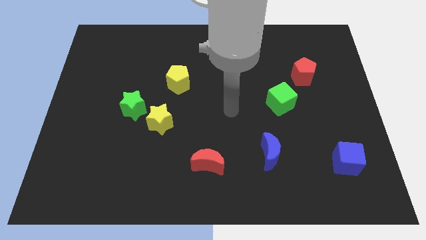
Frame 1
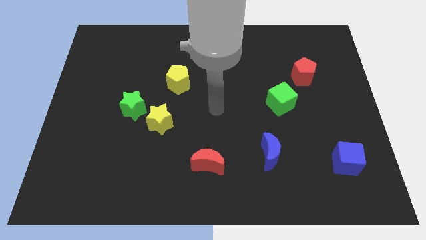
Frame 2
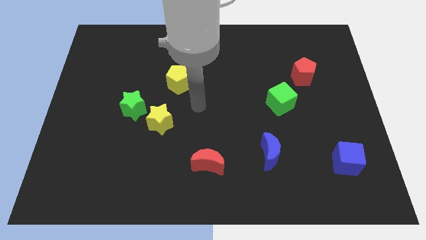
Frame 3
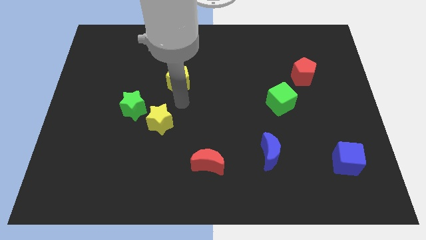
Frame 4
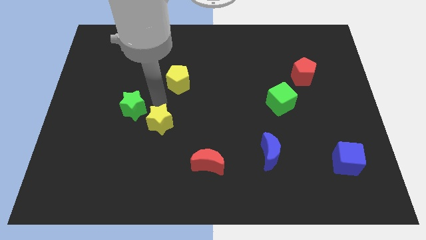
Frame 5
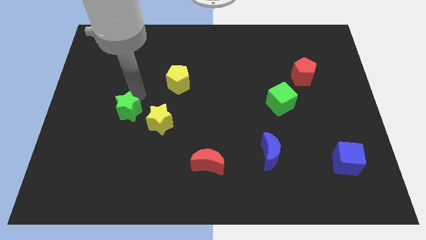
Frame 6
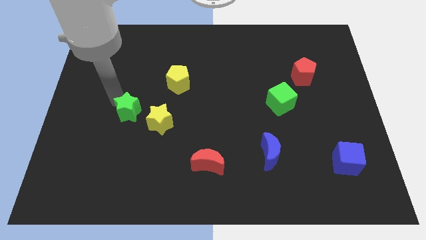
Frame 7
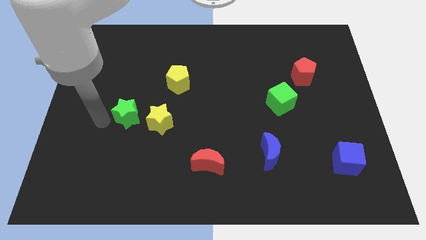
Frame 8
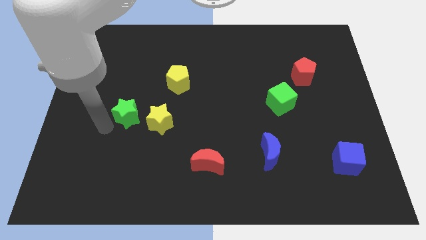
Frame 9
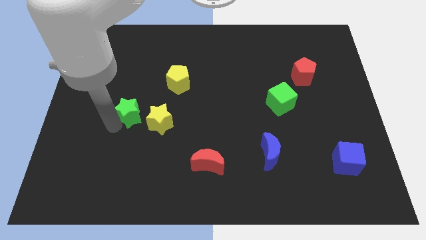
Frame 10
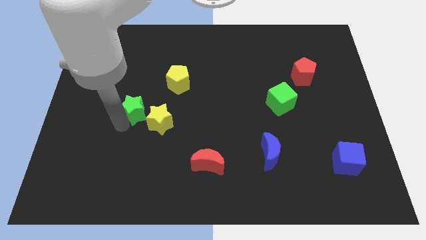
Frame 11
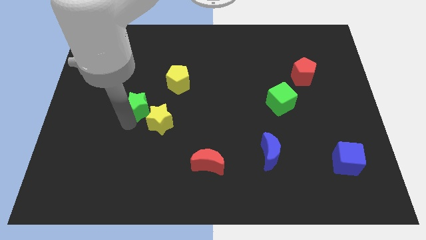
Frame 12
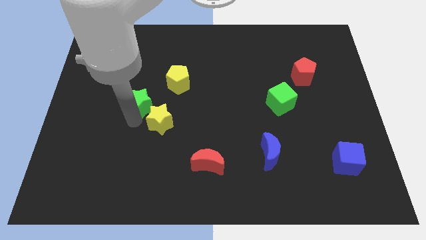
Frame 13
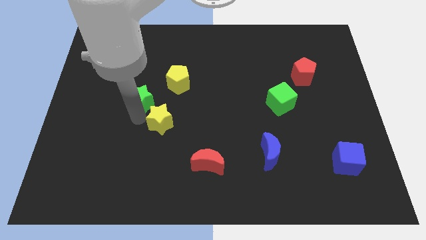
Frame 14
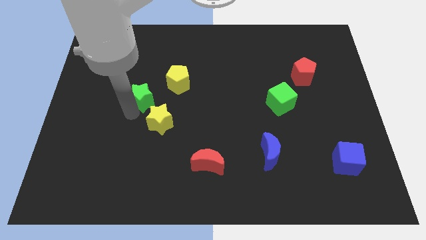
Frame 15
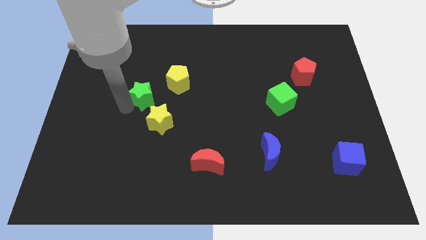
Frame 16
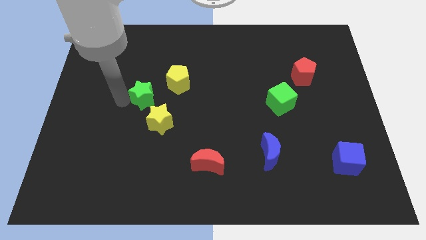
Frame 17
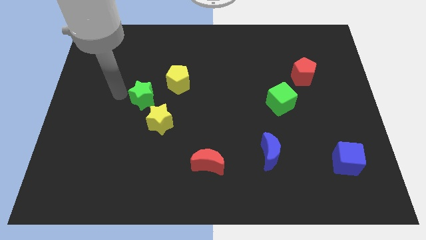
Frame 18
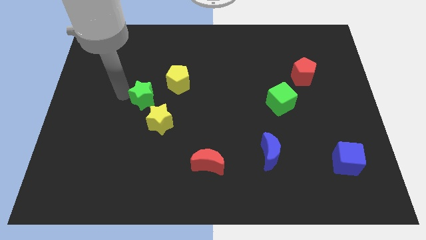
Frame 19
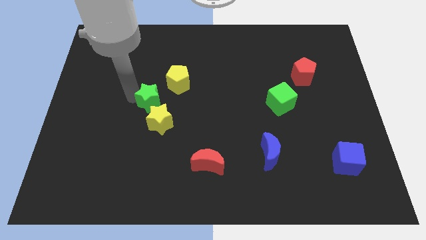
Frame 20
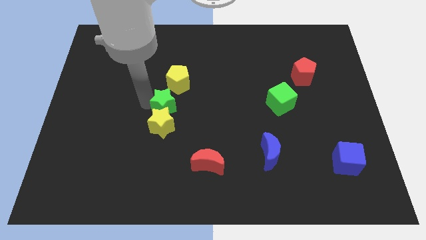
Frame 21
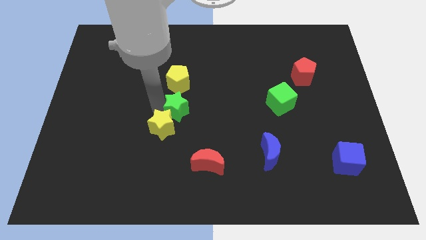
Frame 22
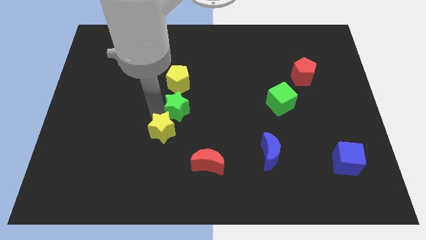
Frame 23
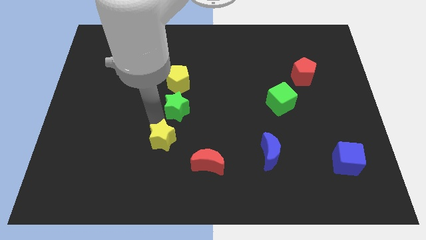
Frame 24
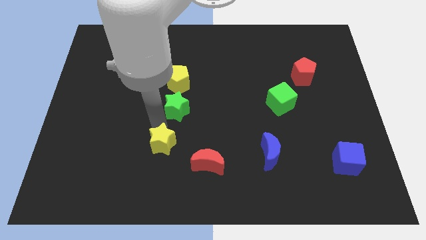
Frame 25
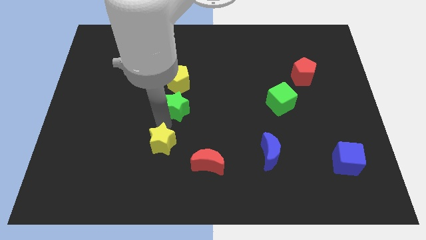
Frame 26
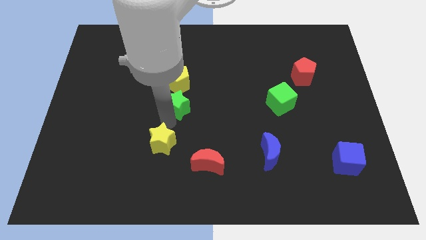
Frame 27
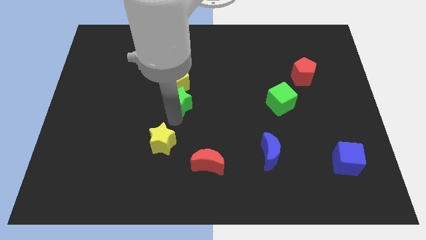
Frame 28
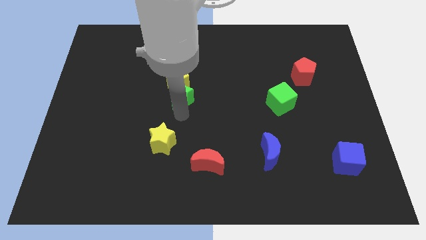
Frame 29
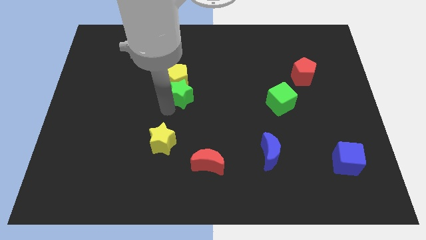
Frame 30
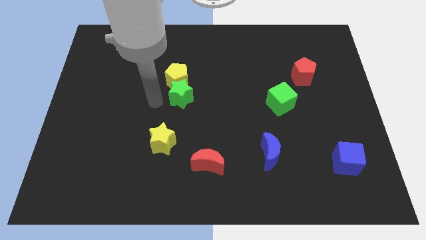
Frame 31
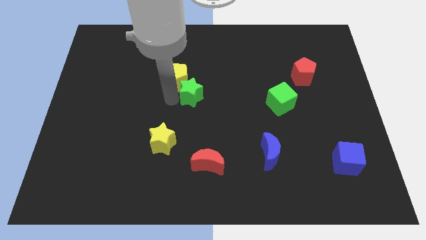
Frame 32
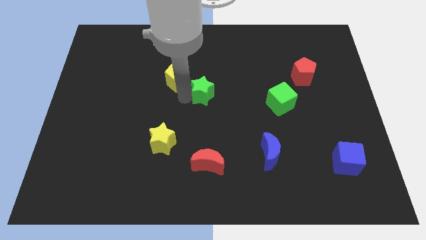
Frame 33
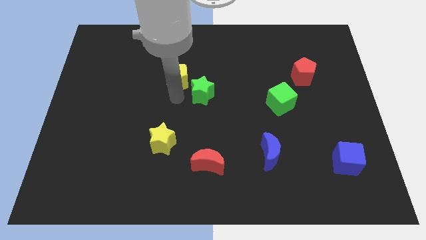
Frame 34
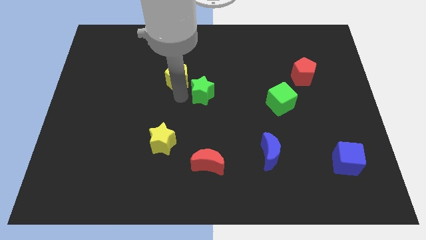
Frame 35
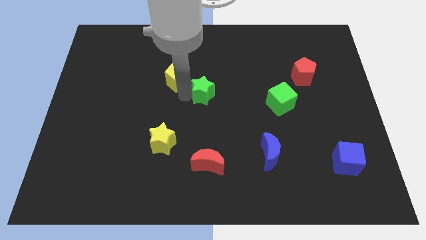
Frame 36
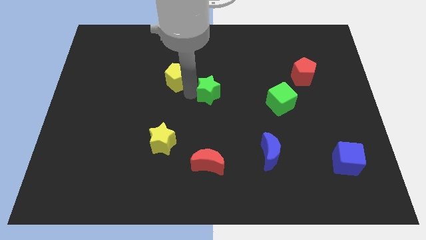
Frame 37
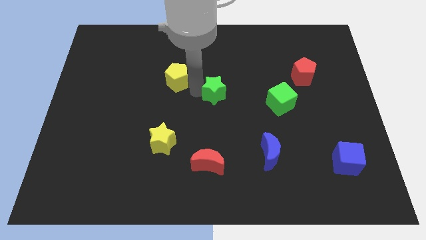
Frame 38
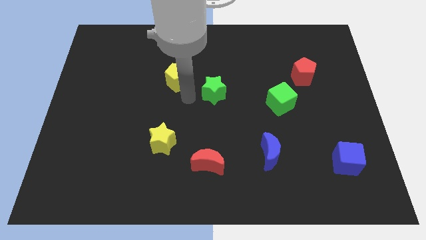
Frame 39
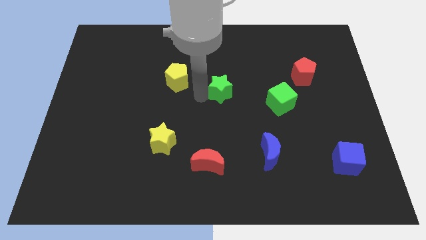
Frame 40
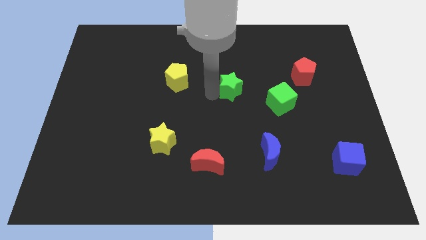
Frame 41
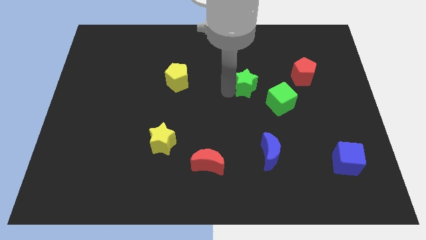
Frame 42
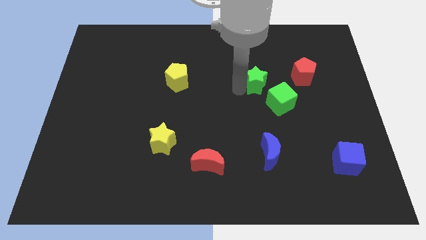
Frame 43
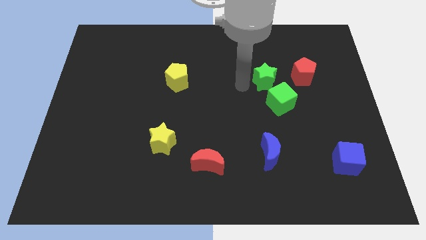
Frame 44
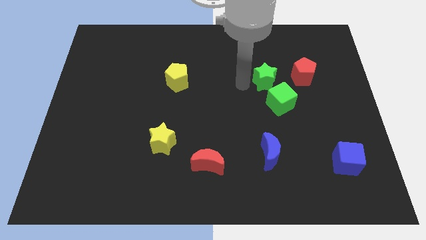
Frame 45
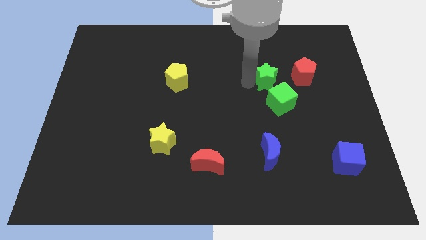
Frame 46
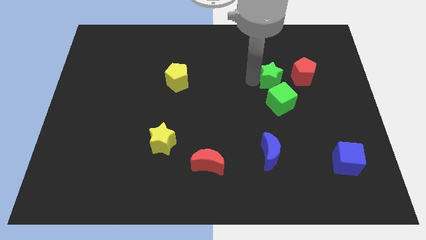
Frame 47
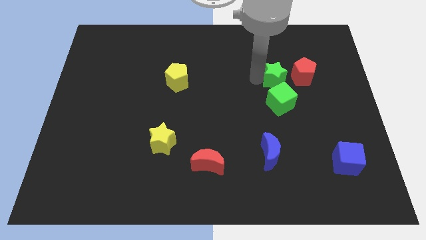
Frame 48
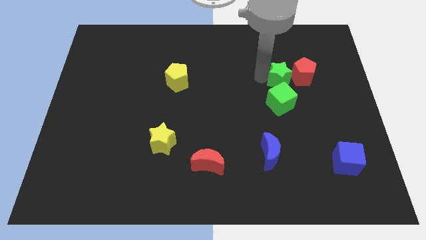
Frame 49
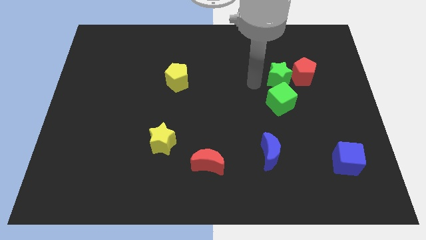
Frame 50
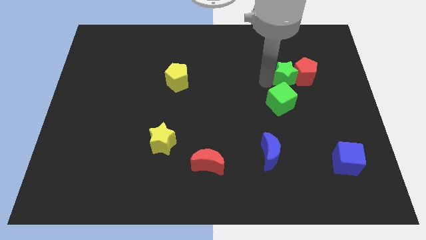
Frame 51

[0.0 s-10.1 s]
put the green star next to the red pentagon

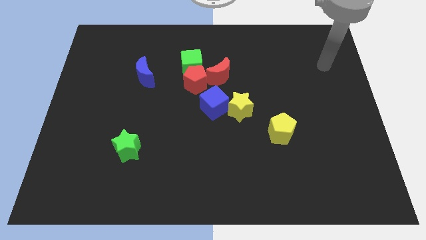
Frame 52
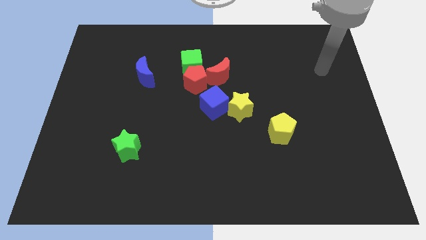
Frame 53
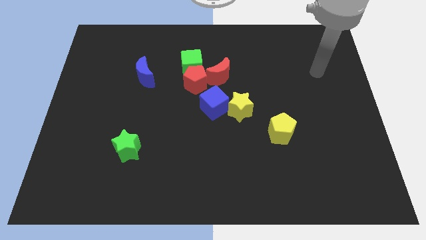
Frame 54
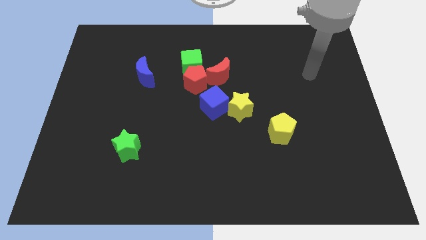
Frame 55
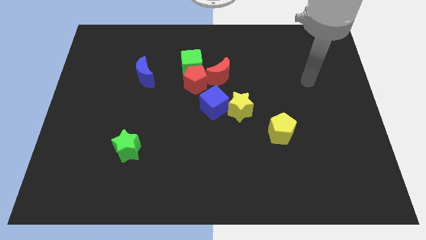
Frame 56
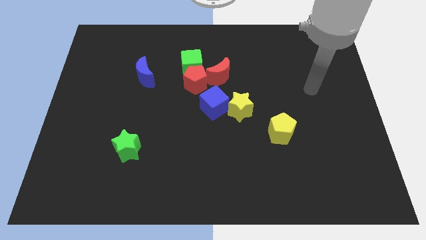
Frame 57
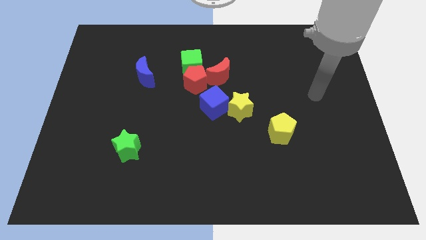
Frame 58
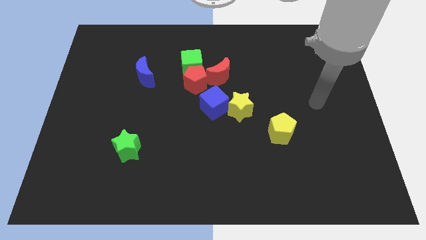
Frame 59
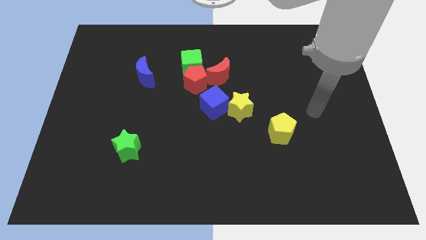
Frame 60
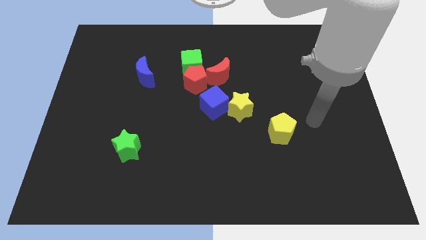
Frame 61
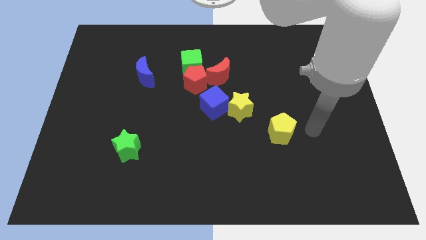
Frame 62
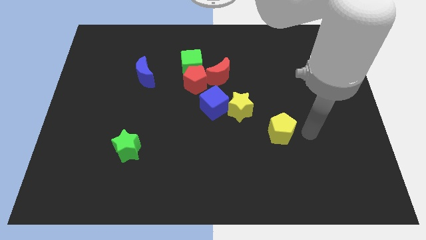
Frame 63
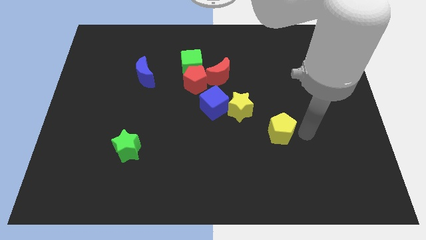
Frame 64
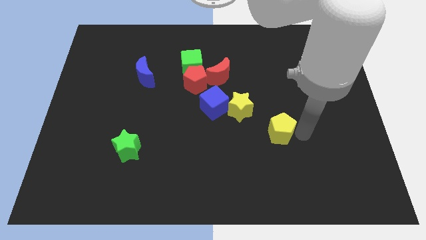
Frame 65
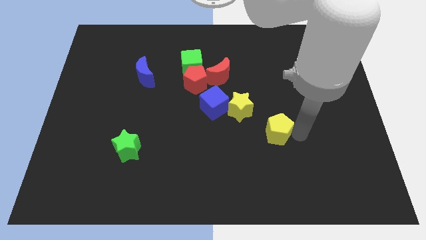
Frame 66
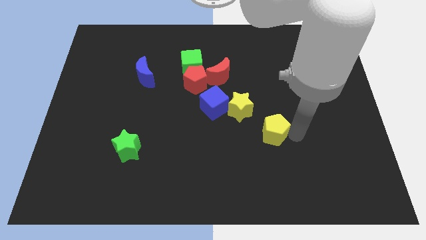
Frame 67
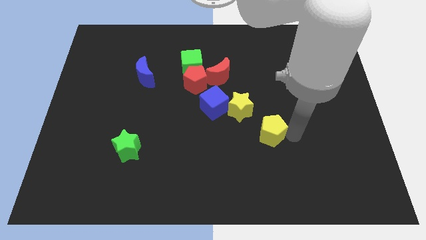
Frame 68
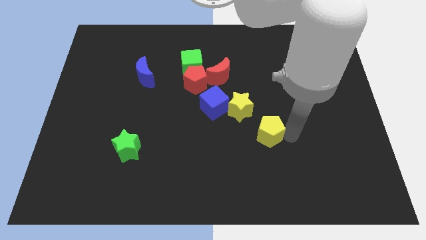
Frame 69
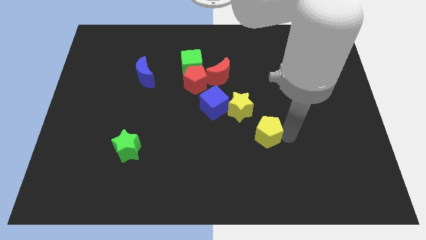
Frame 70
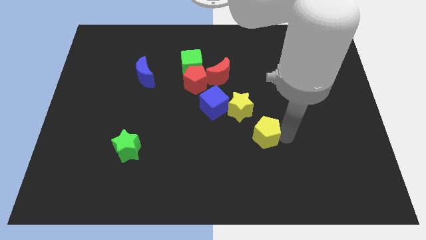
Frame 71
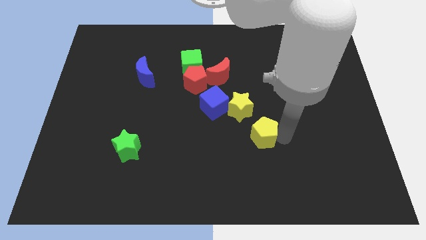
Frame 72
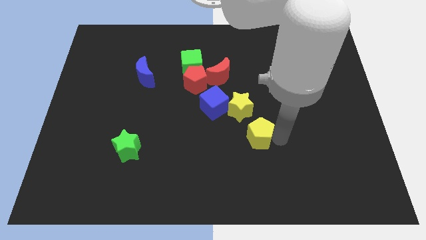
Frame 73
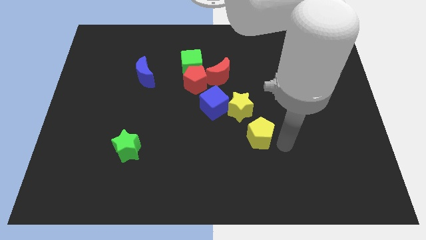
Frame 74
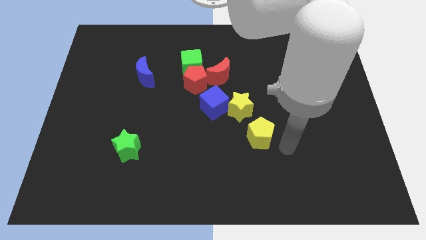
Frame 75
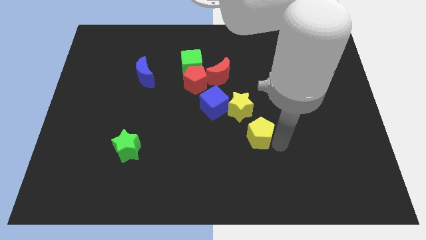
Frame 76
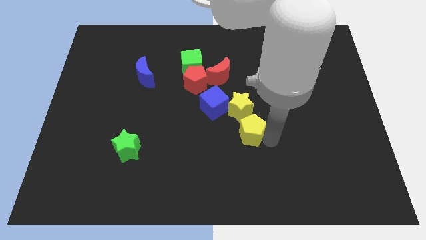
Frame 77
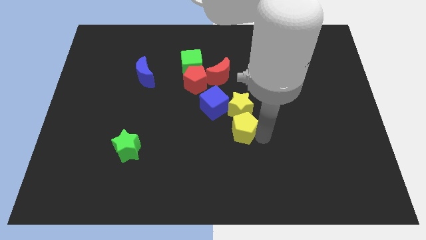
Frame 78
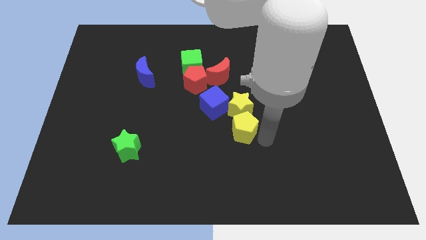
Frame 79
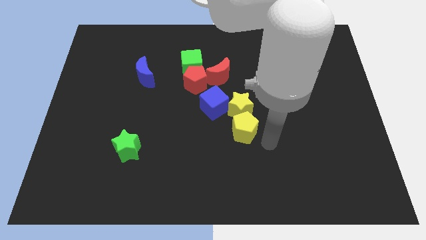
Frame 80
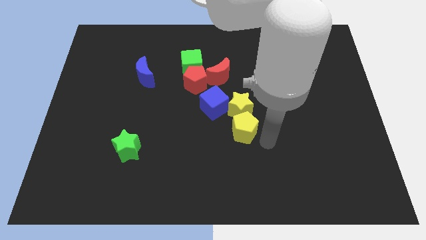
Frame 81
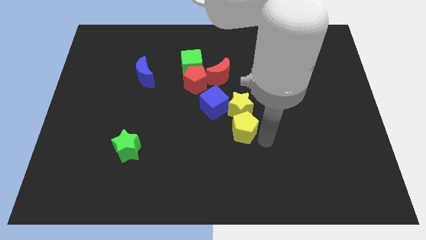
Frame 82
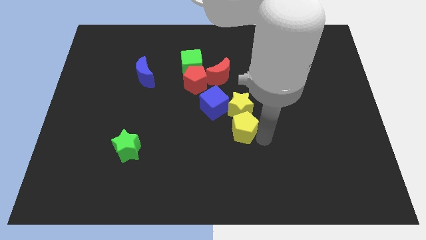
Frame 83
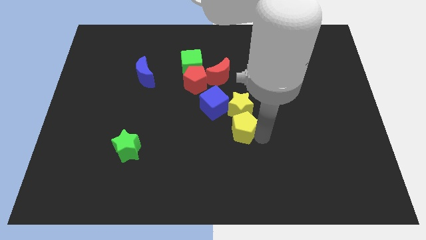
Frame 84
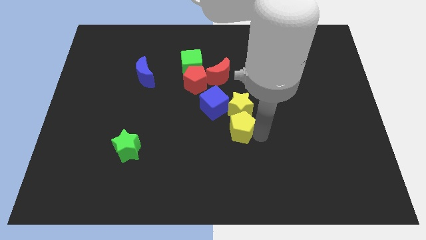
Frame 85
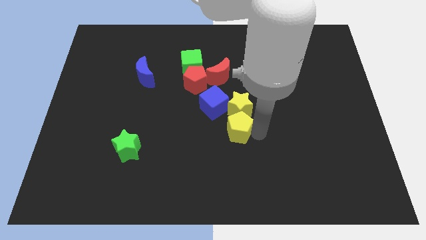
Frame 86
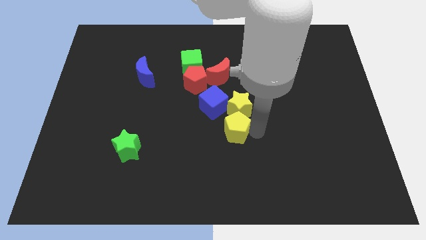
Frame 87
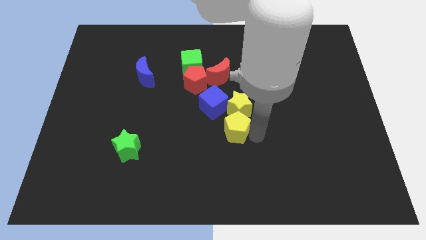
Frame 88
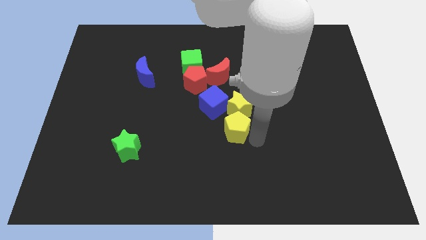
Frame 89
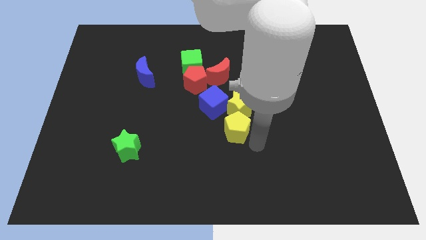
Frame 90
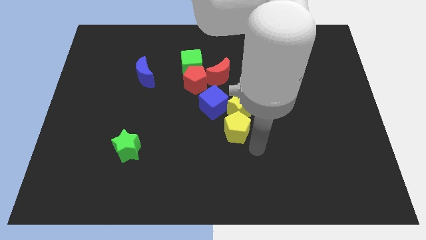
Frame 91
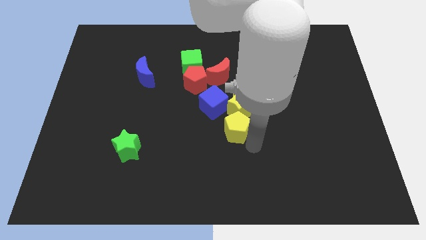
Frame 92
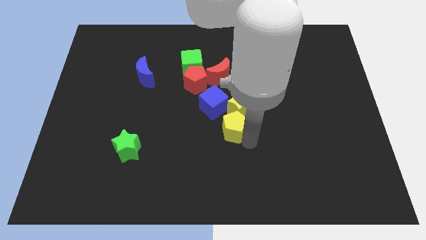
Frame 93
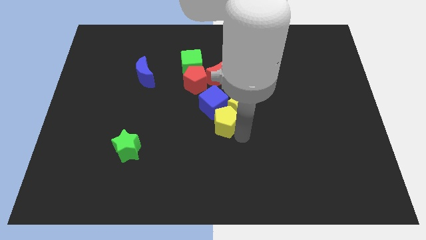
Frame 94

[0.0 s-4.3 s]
move the yellow pentagon close to the blue cube
